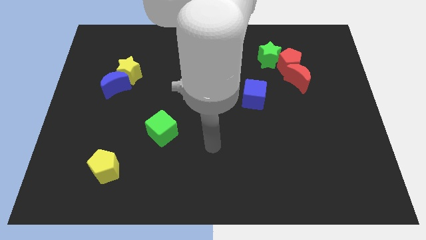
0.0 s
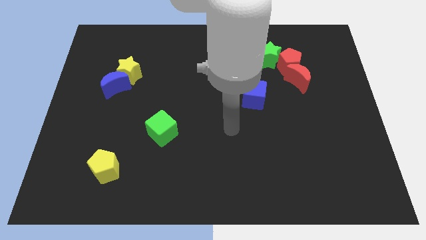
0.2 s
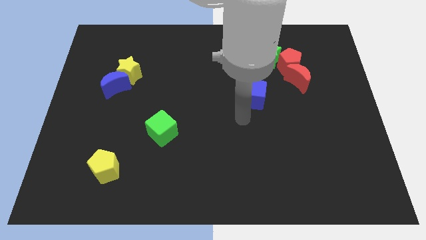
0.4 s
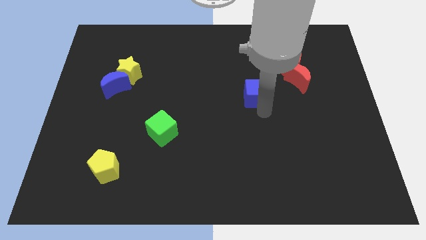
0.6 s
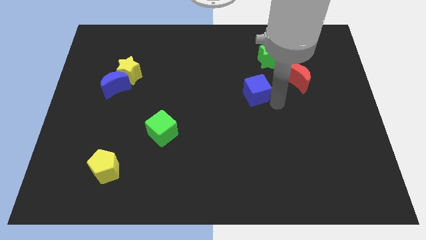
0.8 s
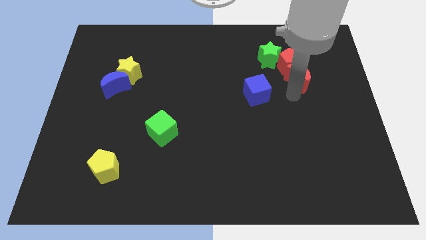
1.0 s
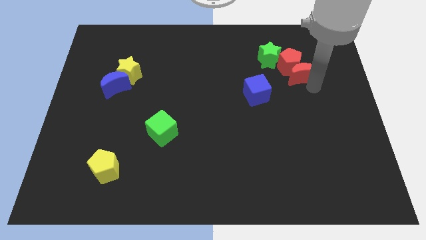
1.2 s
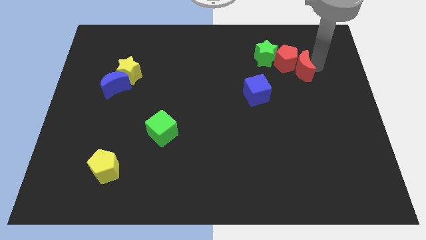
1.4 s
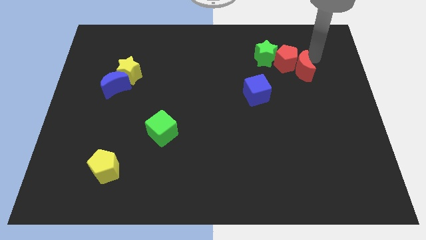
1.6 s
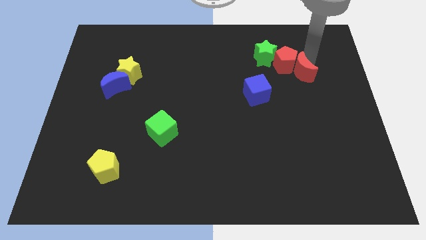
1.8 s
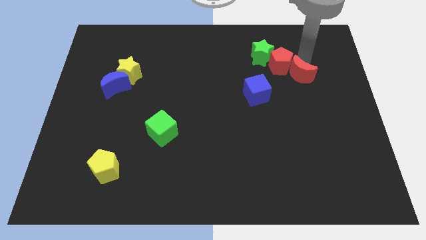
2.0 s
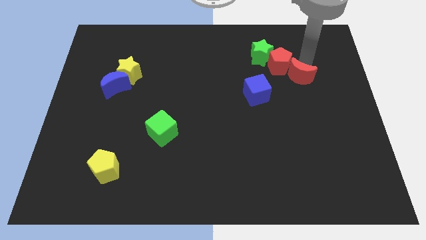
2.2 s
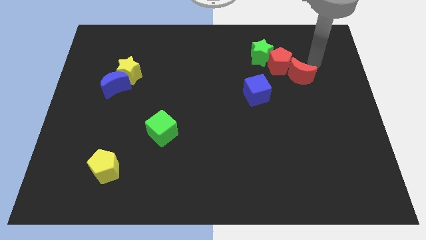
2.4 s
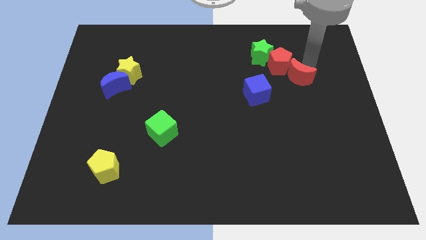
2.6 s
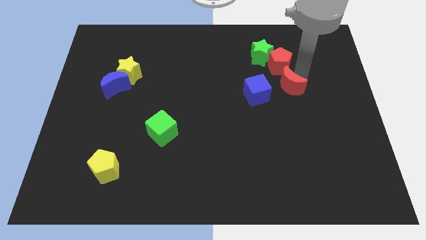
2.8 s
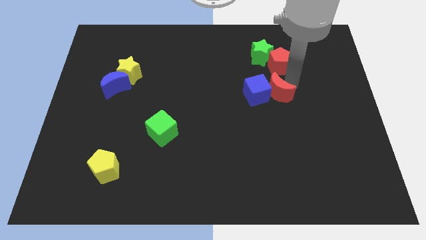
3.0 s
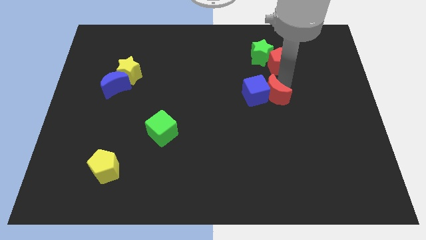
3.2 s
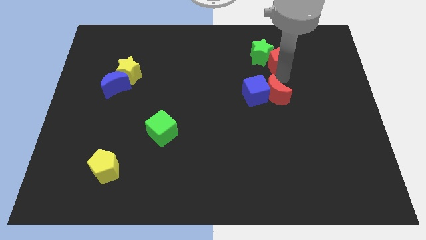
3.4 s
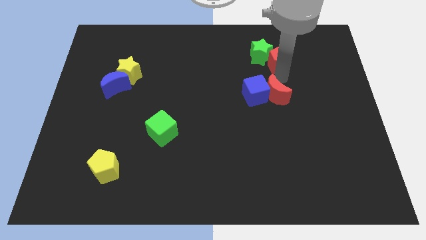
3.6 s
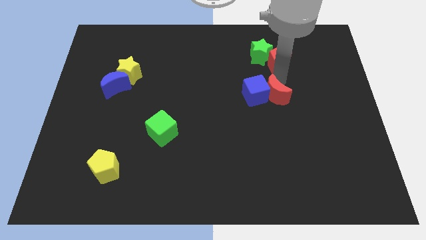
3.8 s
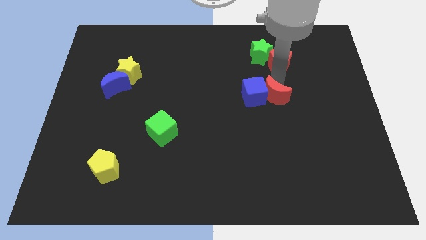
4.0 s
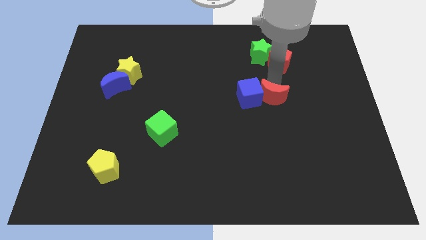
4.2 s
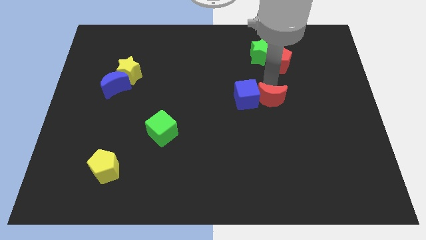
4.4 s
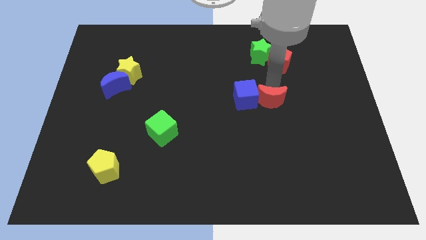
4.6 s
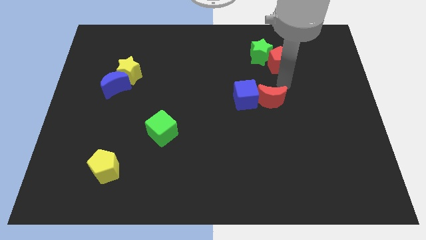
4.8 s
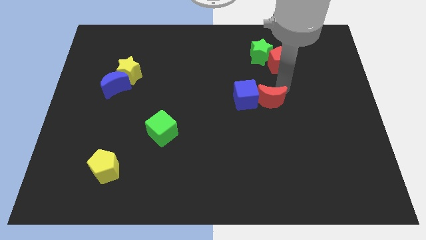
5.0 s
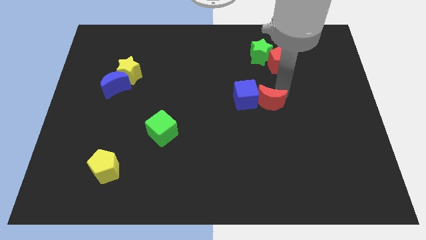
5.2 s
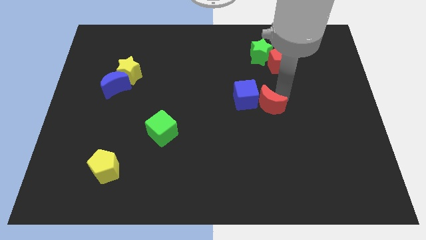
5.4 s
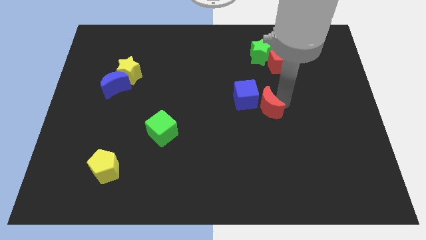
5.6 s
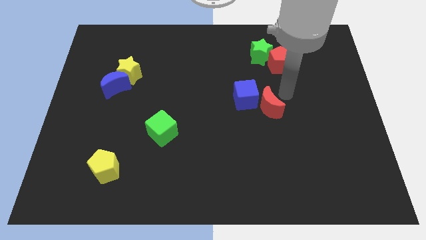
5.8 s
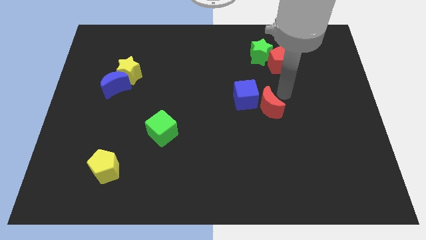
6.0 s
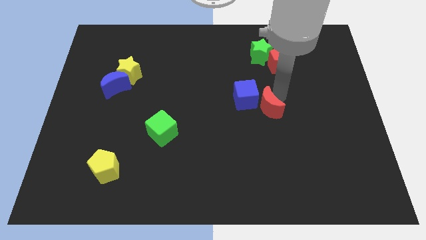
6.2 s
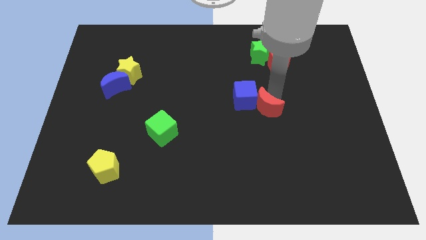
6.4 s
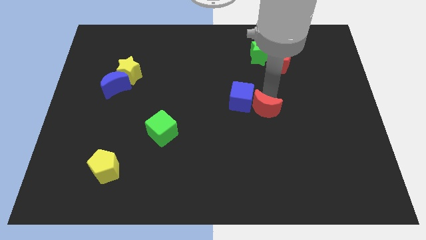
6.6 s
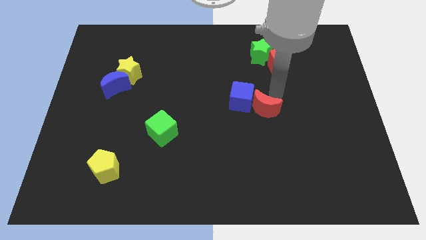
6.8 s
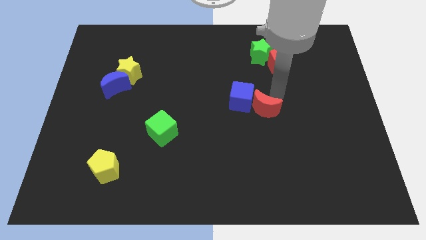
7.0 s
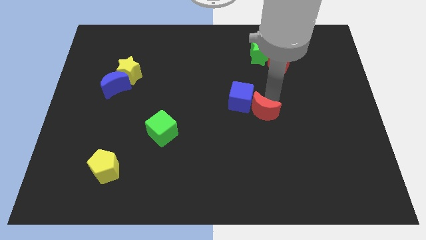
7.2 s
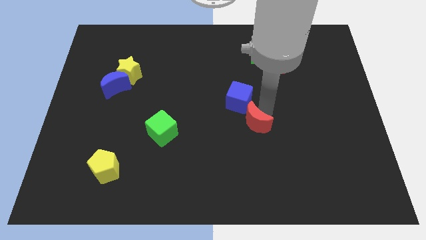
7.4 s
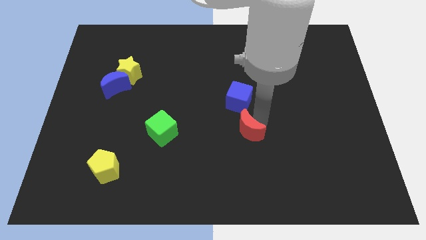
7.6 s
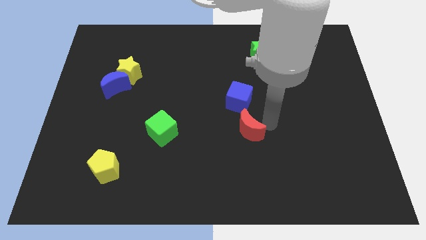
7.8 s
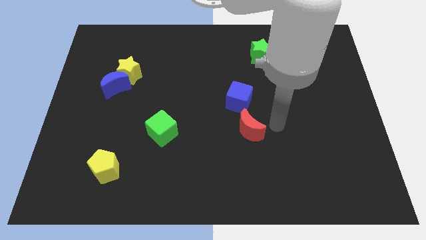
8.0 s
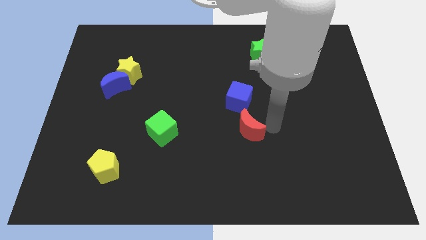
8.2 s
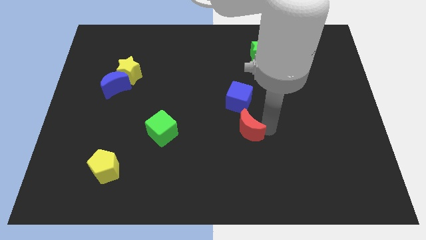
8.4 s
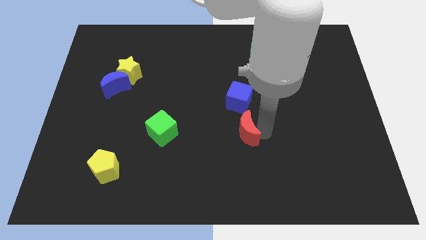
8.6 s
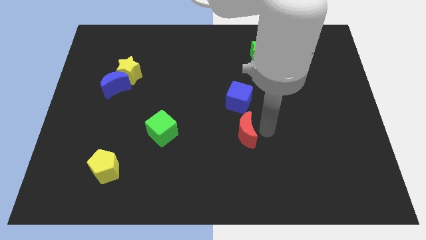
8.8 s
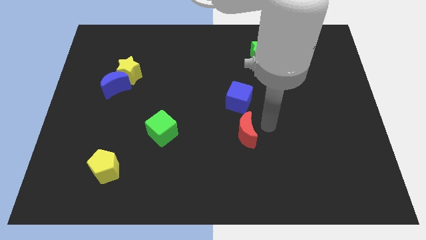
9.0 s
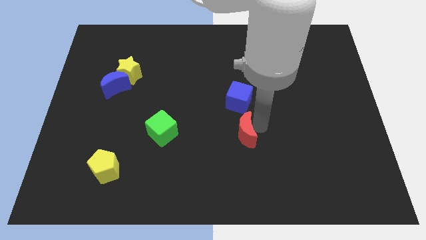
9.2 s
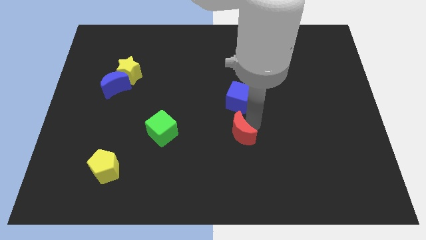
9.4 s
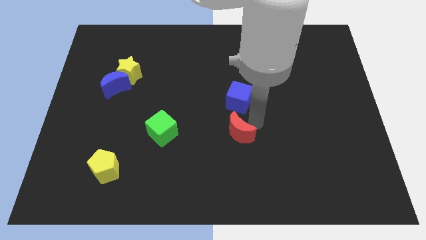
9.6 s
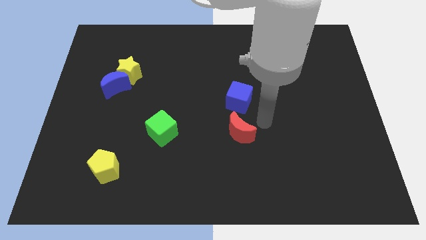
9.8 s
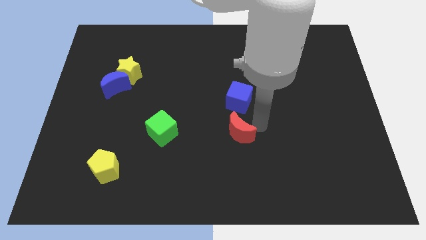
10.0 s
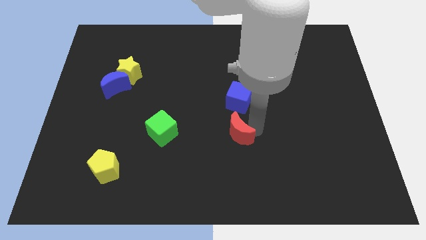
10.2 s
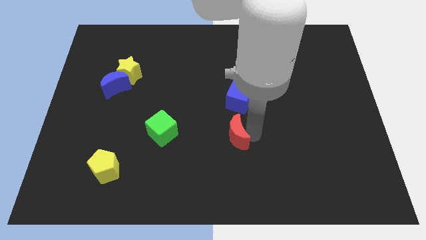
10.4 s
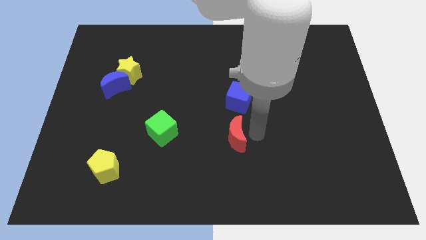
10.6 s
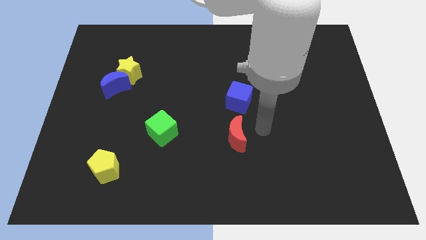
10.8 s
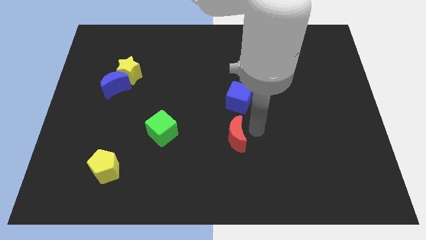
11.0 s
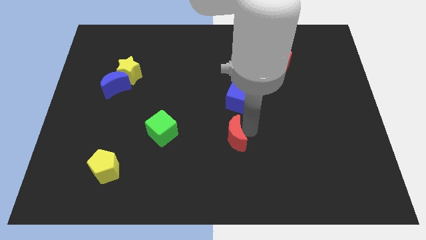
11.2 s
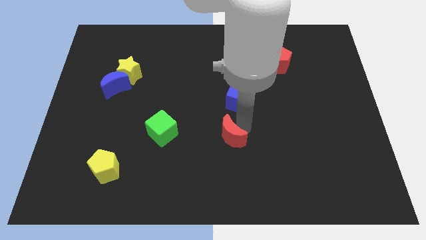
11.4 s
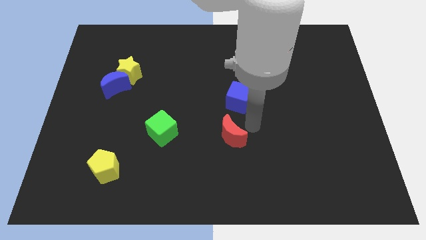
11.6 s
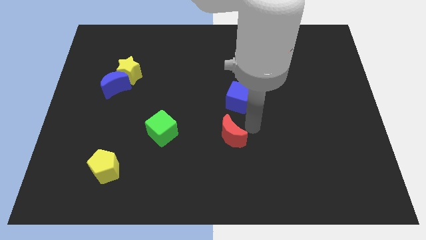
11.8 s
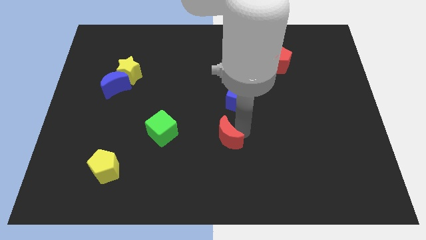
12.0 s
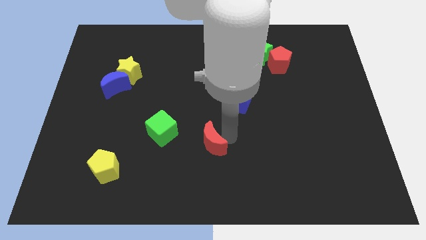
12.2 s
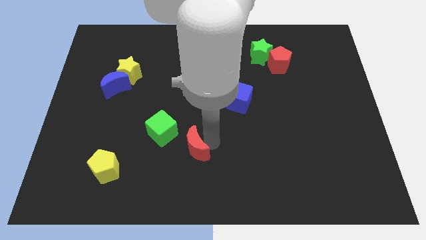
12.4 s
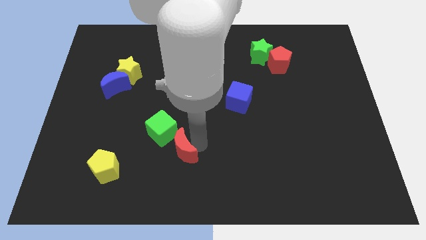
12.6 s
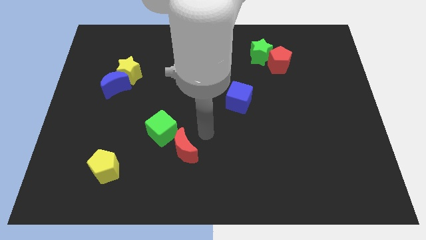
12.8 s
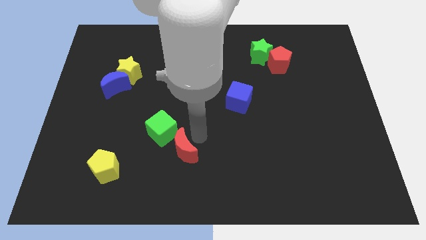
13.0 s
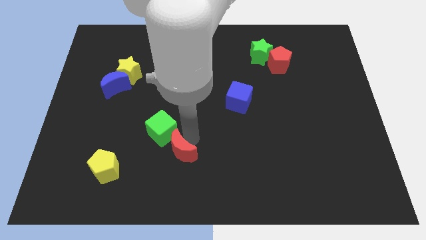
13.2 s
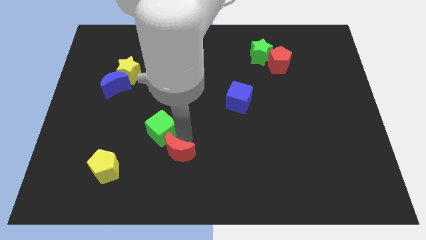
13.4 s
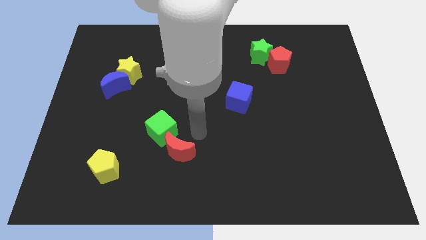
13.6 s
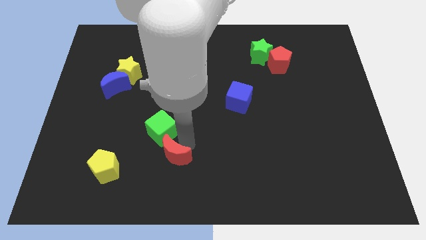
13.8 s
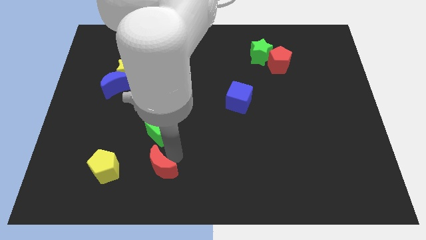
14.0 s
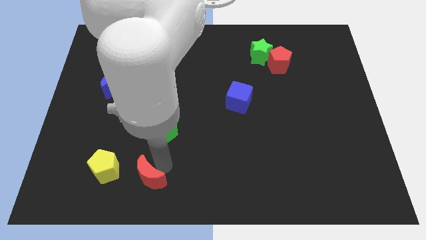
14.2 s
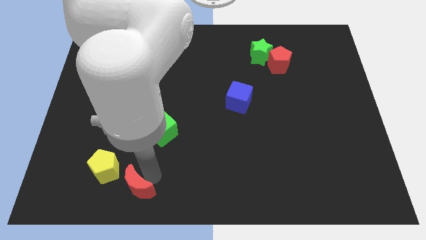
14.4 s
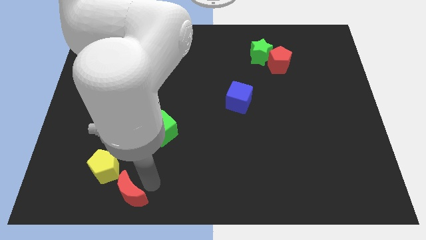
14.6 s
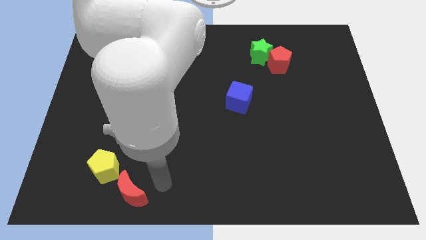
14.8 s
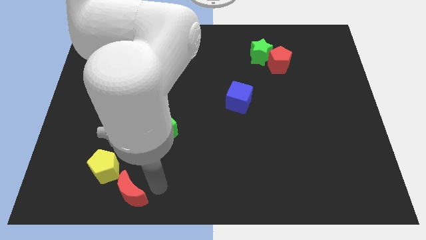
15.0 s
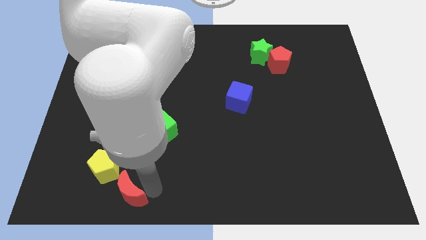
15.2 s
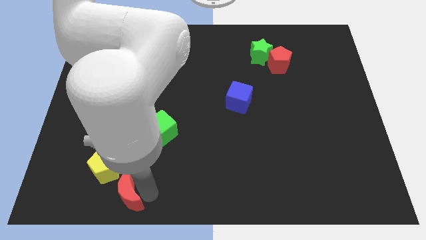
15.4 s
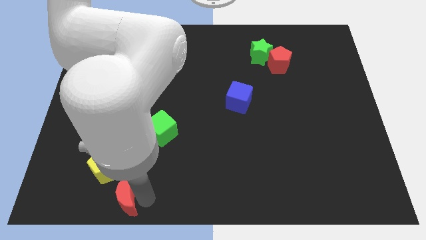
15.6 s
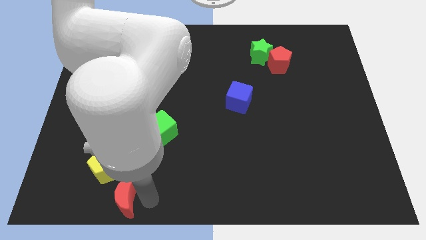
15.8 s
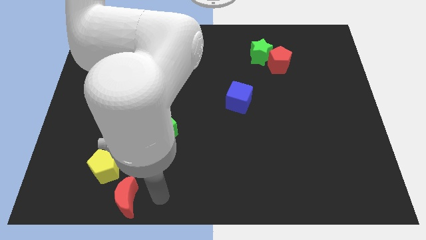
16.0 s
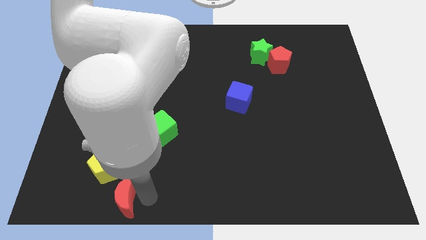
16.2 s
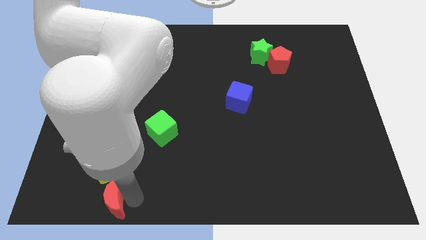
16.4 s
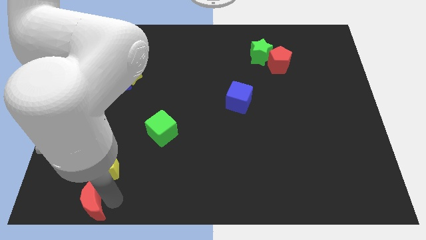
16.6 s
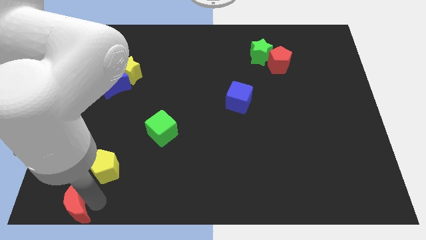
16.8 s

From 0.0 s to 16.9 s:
move the red moon to the lower left corner
